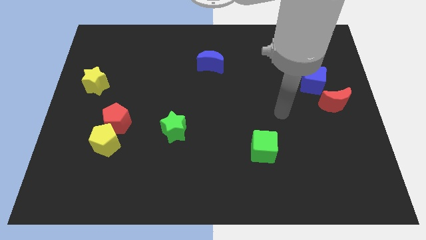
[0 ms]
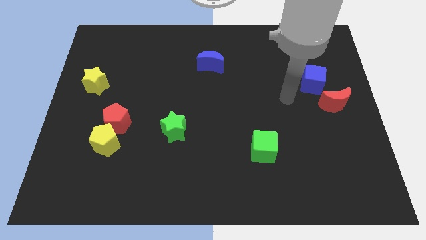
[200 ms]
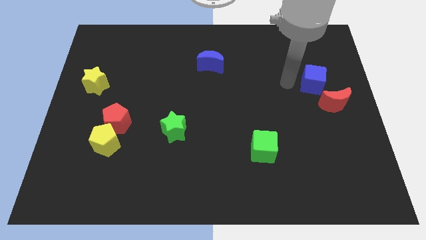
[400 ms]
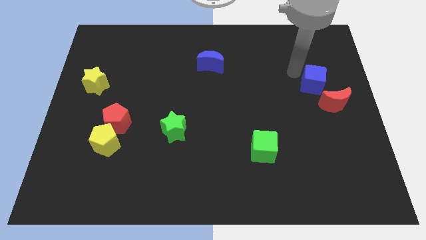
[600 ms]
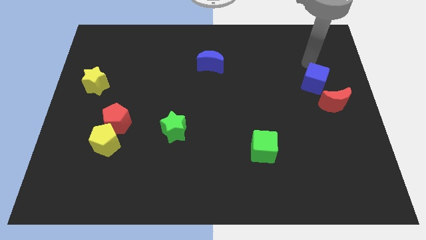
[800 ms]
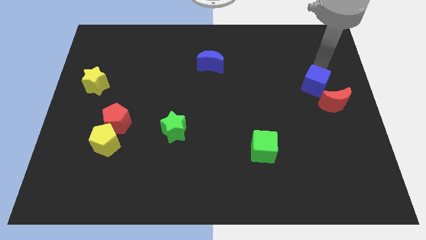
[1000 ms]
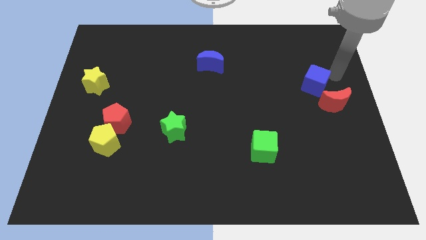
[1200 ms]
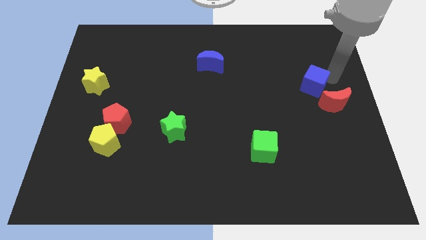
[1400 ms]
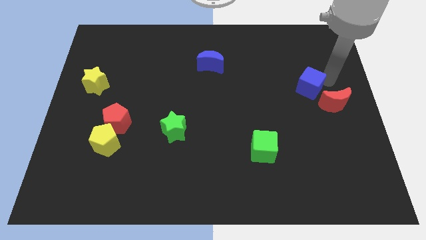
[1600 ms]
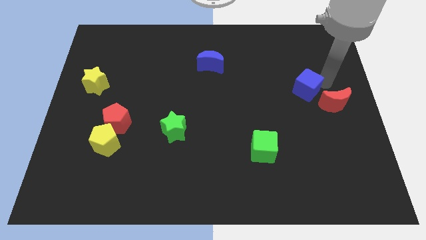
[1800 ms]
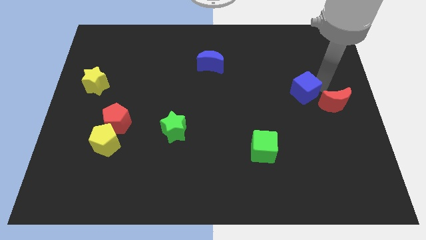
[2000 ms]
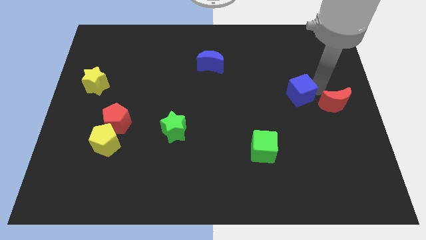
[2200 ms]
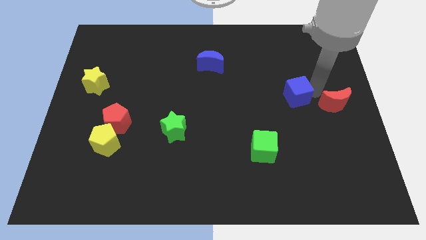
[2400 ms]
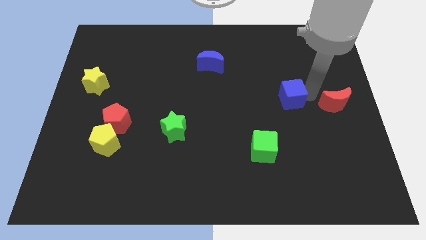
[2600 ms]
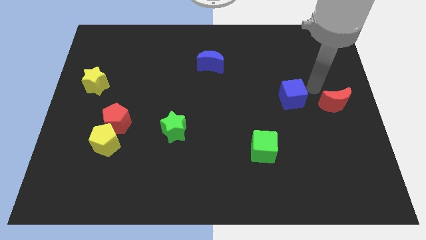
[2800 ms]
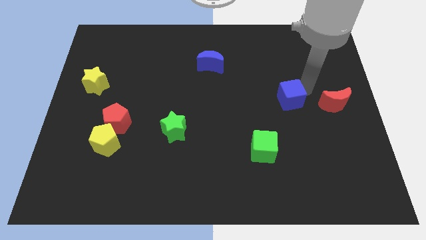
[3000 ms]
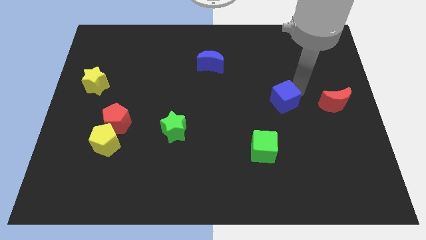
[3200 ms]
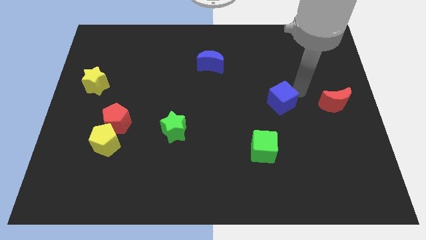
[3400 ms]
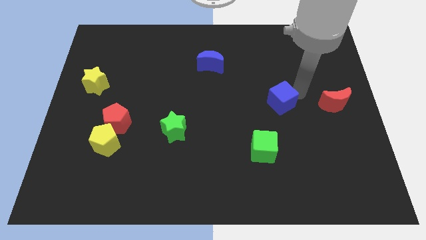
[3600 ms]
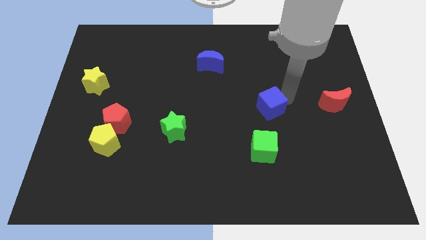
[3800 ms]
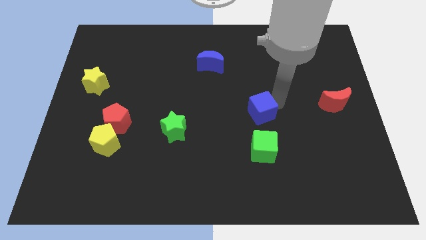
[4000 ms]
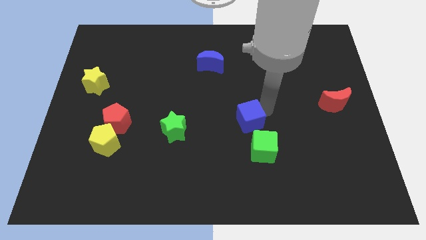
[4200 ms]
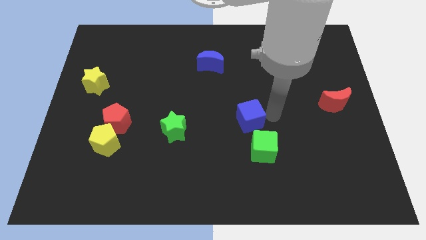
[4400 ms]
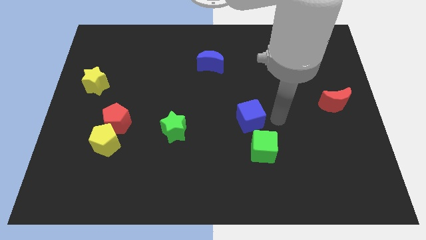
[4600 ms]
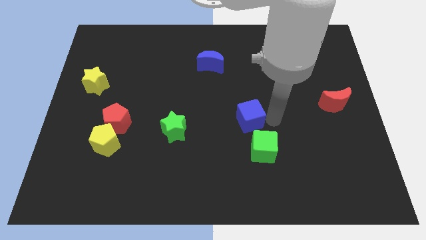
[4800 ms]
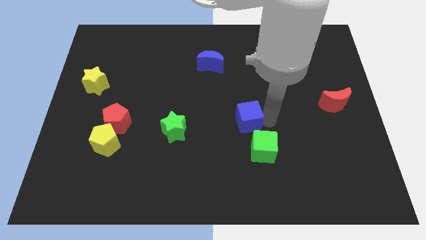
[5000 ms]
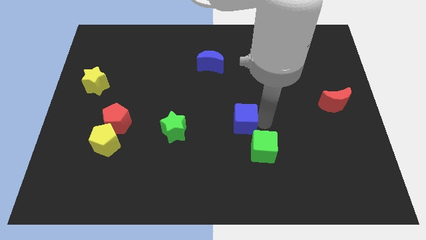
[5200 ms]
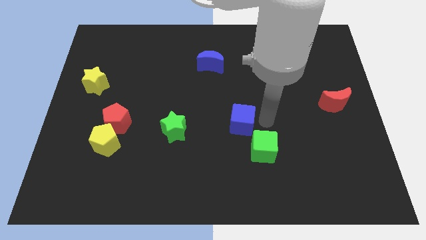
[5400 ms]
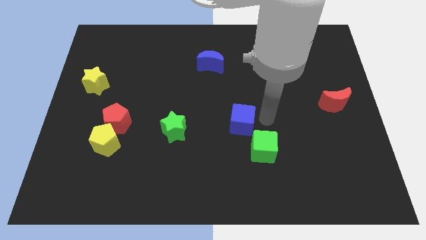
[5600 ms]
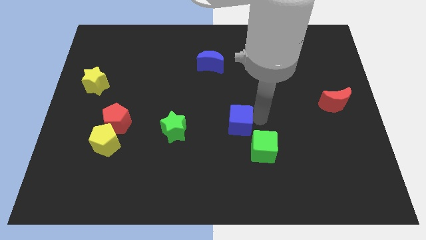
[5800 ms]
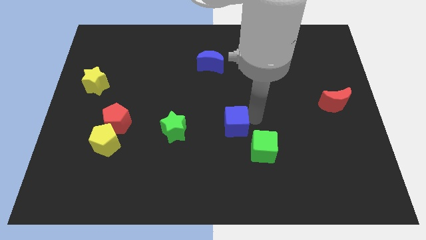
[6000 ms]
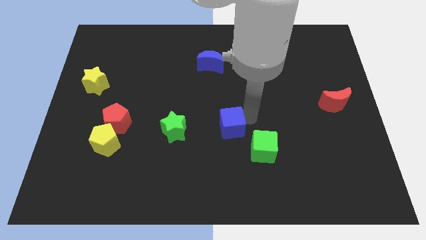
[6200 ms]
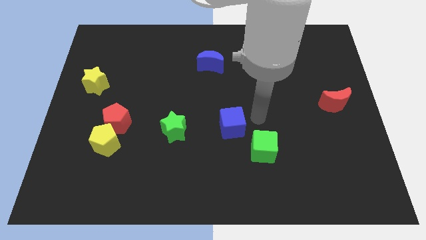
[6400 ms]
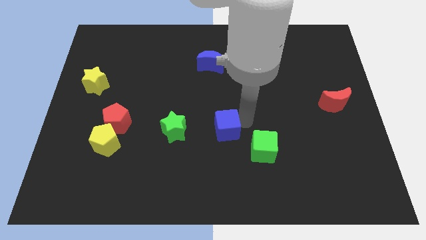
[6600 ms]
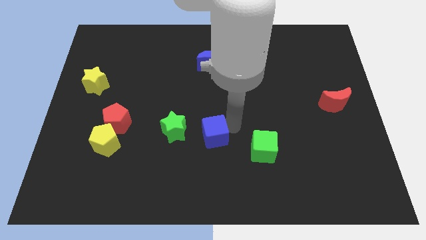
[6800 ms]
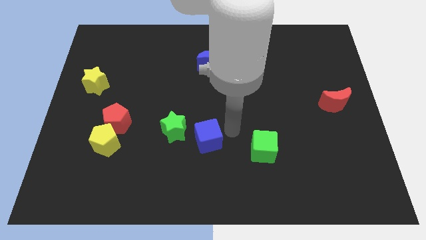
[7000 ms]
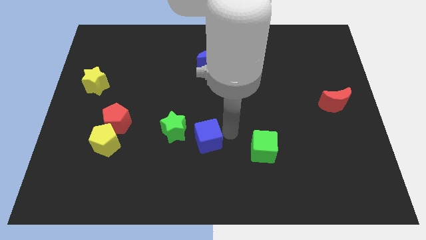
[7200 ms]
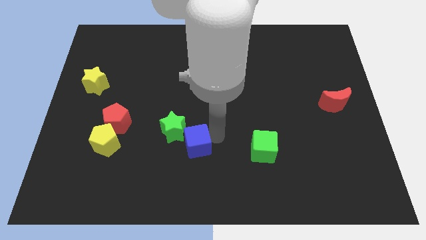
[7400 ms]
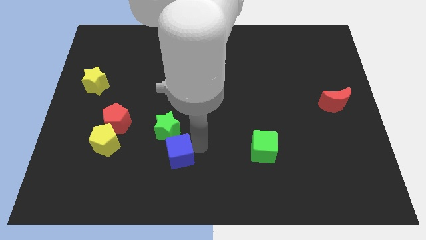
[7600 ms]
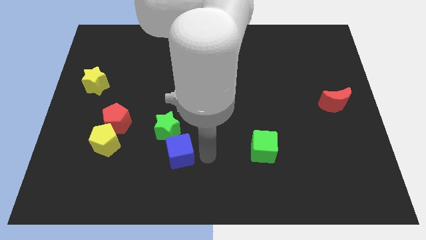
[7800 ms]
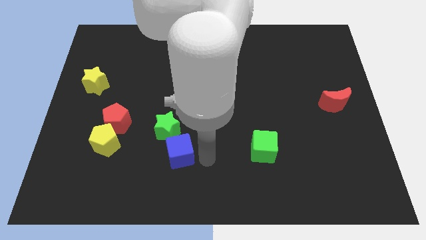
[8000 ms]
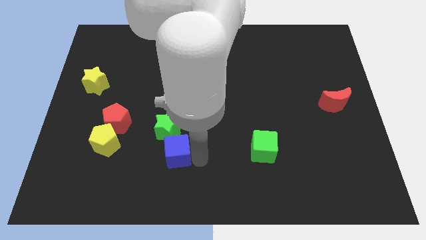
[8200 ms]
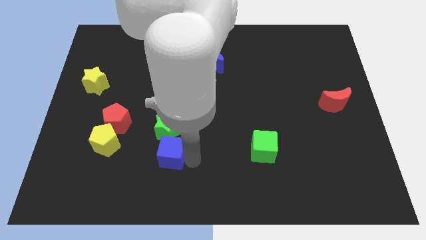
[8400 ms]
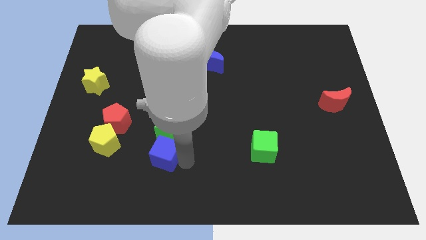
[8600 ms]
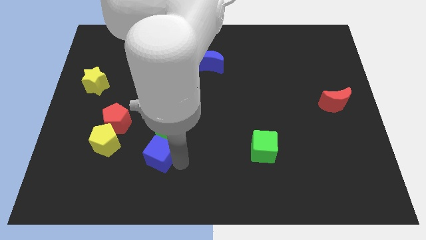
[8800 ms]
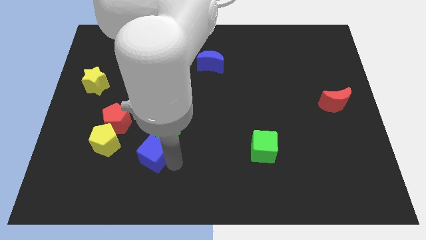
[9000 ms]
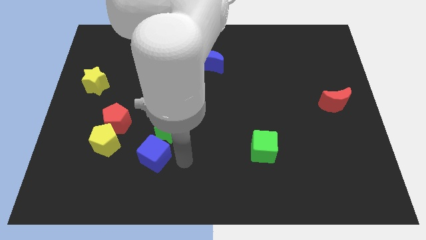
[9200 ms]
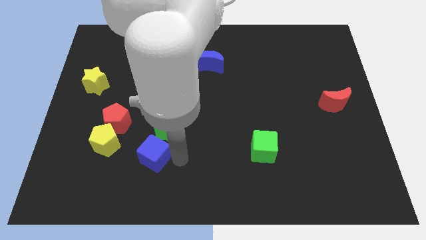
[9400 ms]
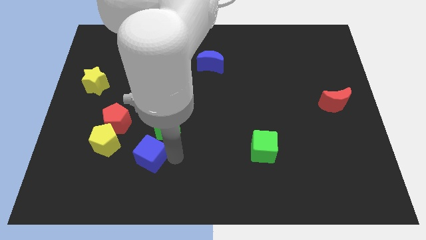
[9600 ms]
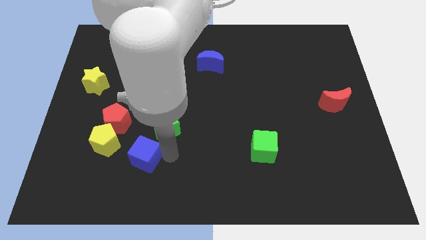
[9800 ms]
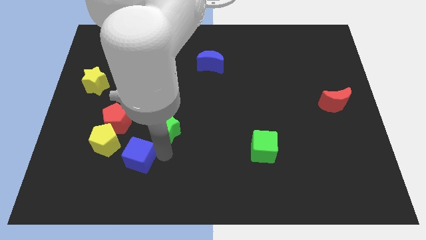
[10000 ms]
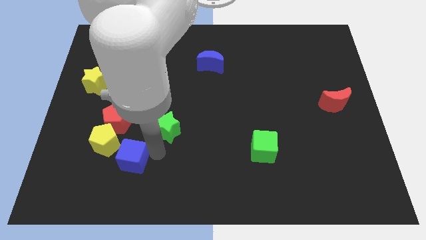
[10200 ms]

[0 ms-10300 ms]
slide the blue cube to the bottom side of the red pentagon

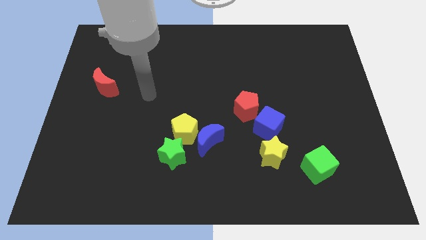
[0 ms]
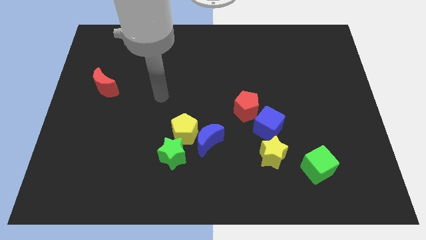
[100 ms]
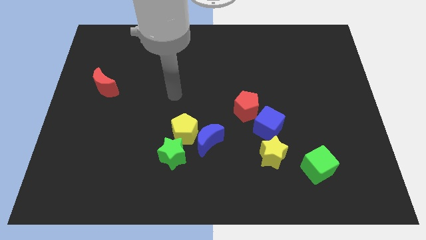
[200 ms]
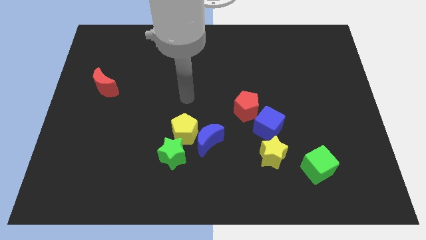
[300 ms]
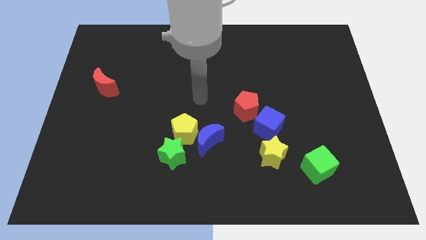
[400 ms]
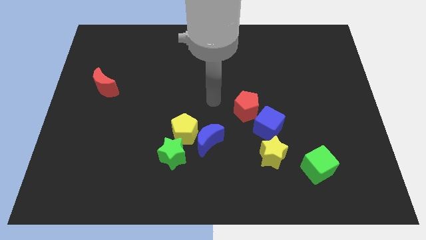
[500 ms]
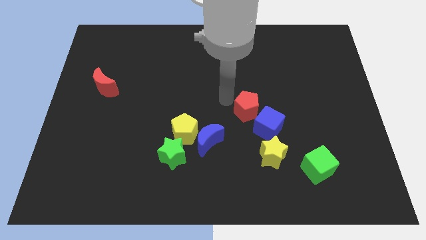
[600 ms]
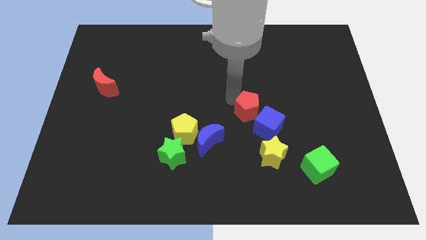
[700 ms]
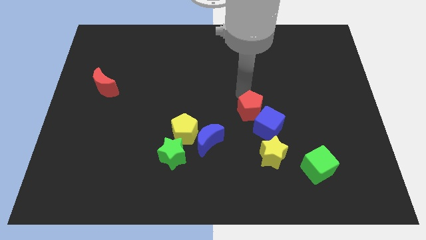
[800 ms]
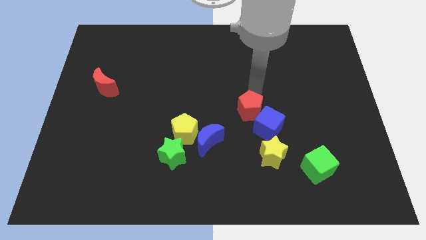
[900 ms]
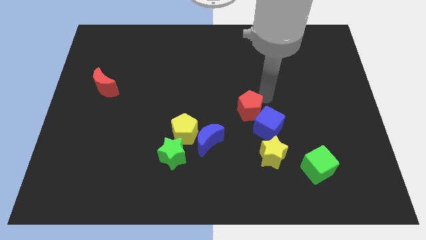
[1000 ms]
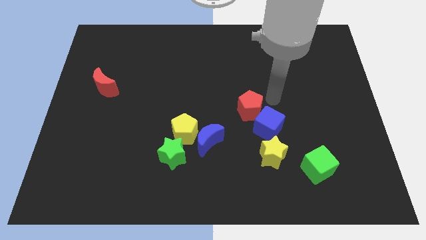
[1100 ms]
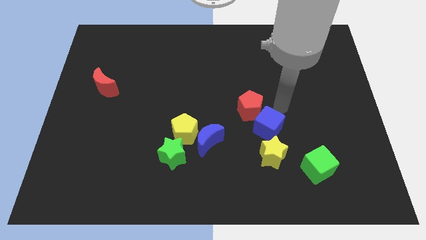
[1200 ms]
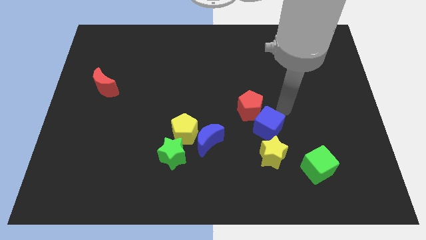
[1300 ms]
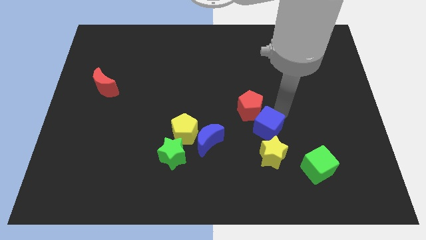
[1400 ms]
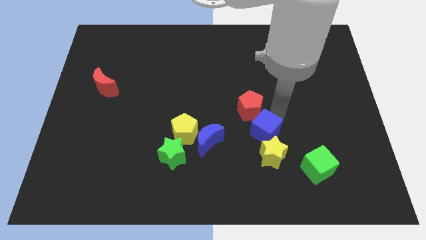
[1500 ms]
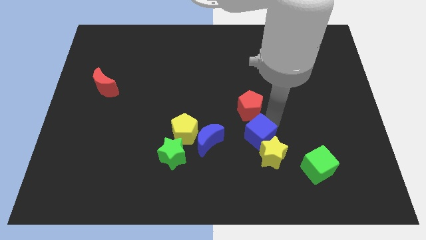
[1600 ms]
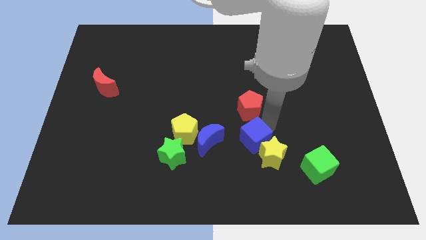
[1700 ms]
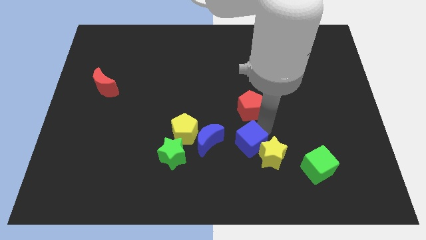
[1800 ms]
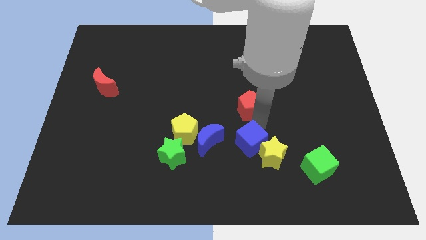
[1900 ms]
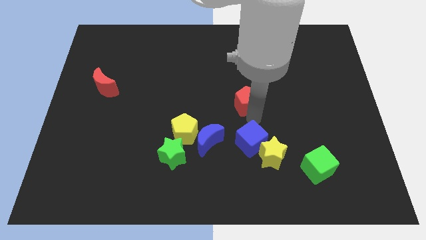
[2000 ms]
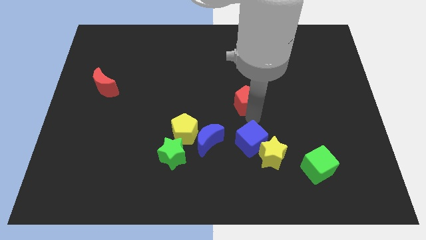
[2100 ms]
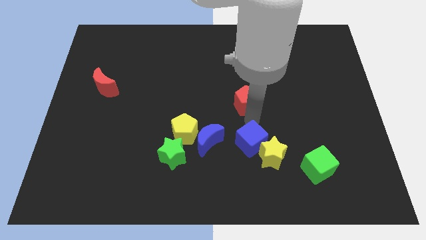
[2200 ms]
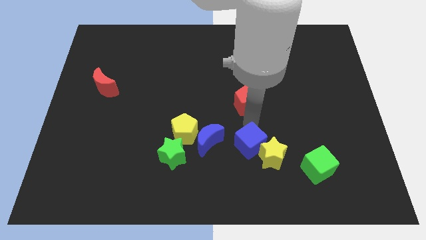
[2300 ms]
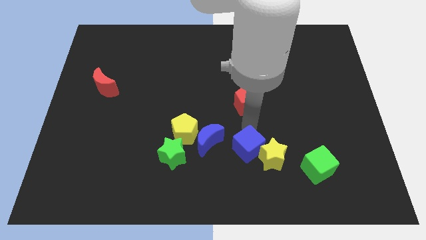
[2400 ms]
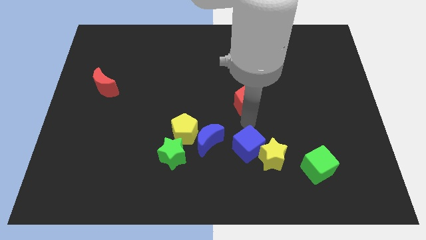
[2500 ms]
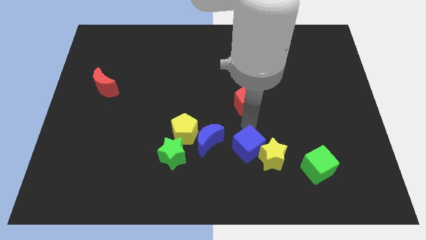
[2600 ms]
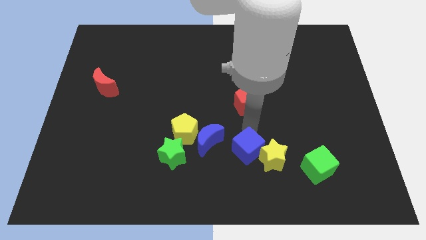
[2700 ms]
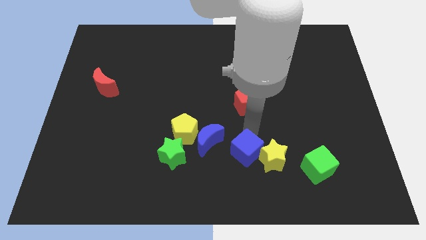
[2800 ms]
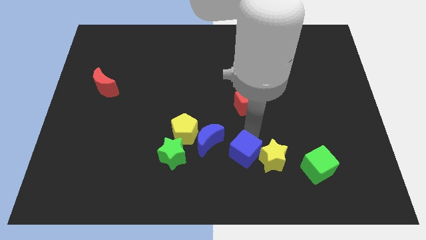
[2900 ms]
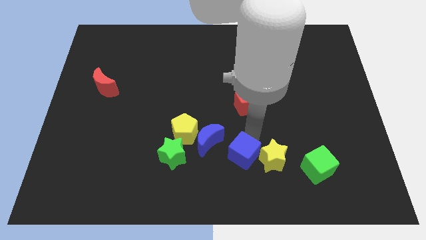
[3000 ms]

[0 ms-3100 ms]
move the blue cube diagonally down and to the left of the yellow star

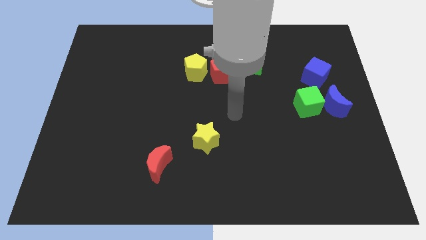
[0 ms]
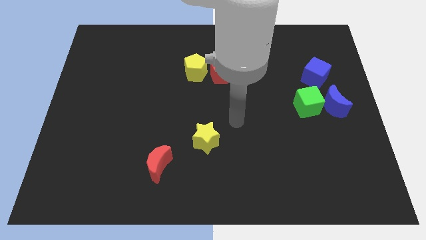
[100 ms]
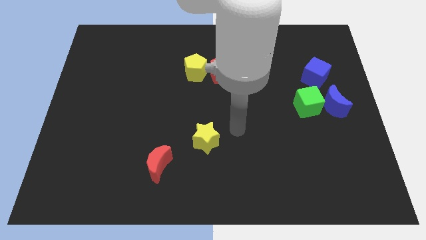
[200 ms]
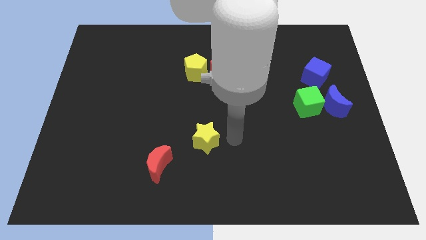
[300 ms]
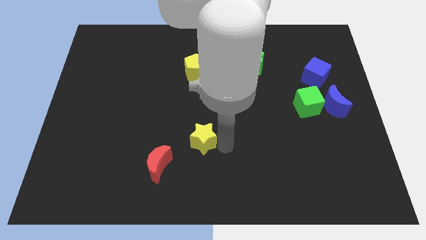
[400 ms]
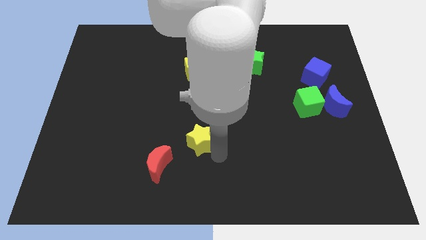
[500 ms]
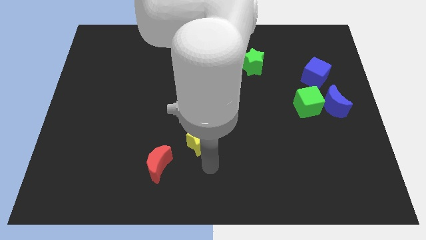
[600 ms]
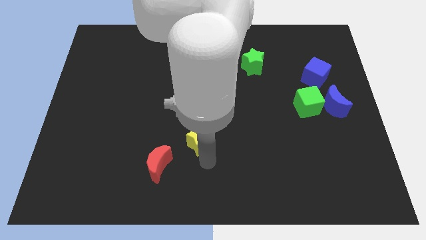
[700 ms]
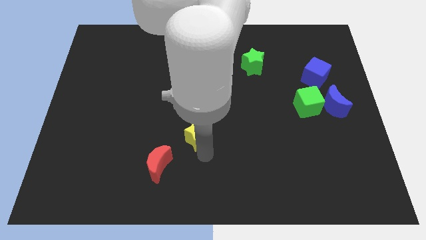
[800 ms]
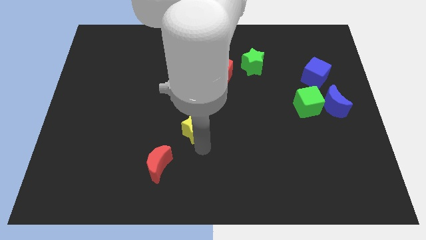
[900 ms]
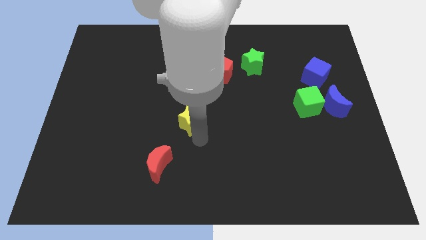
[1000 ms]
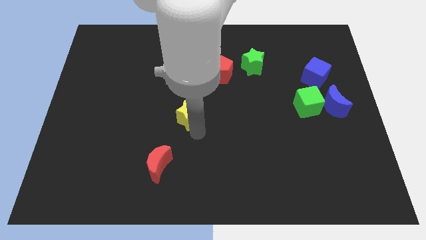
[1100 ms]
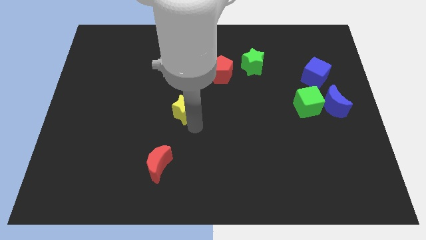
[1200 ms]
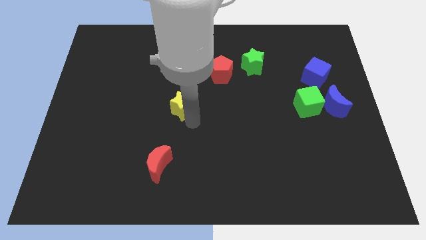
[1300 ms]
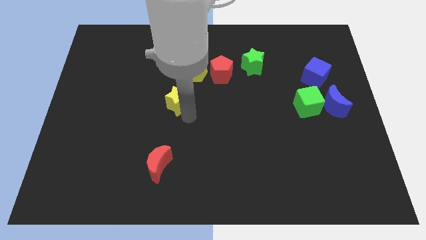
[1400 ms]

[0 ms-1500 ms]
move the yellow star diagonally down and to the left of the yellow pentagon
